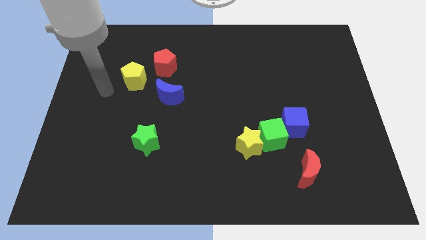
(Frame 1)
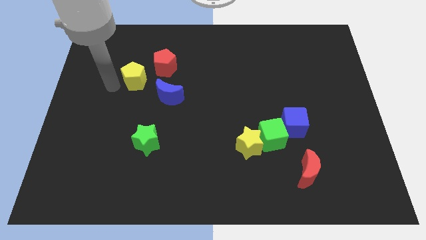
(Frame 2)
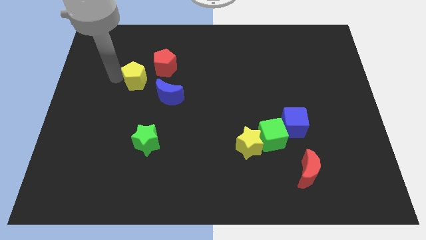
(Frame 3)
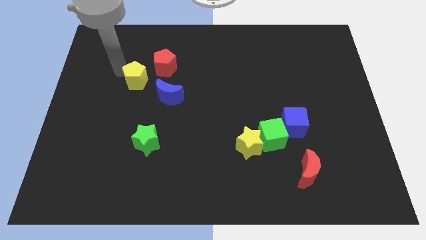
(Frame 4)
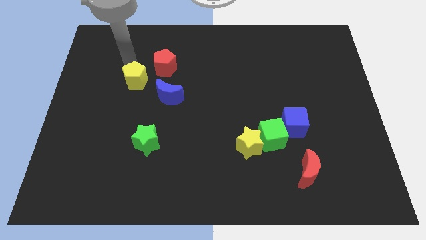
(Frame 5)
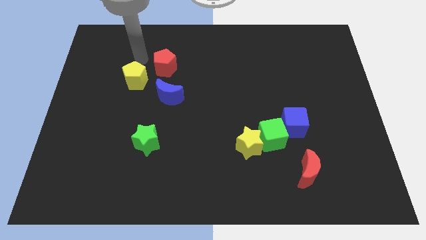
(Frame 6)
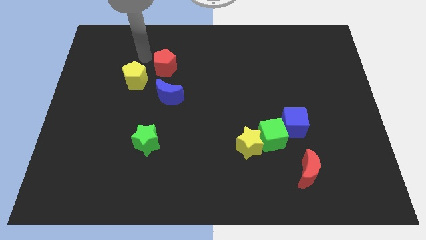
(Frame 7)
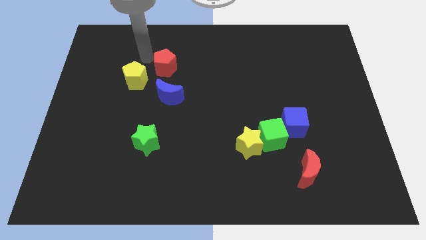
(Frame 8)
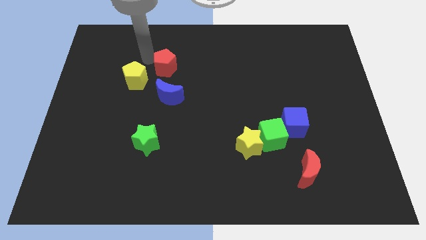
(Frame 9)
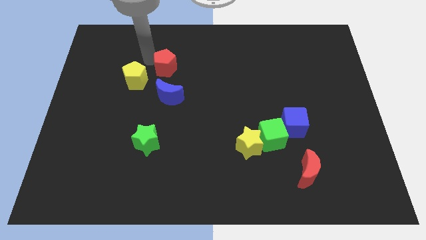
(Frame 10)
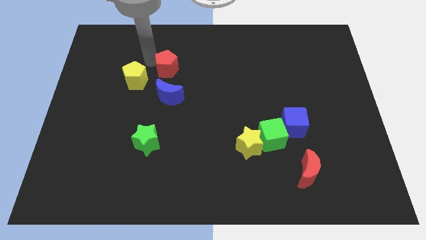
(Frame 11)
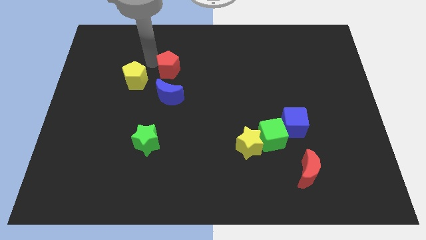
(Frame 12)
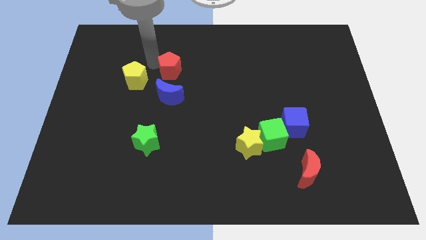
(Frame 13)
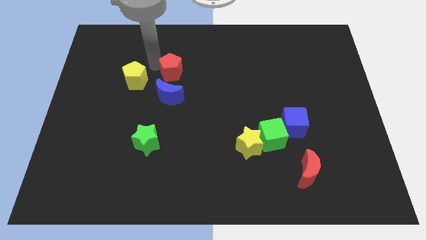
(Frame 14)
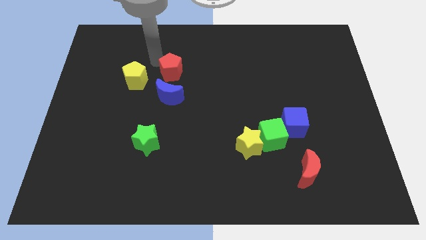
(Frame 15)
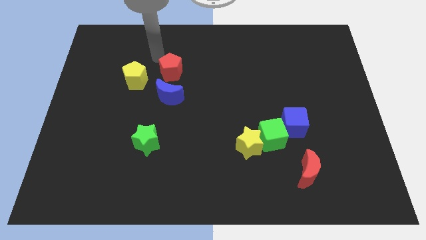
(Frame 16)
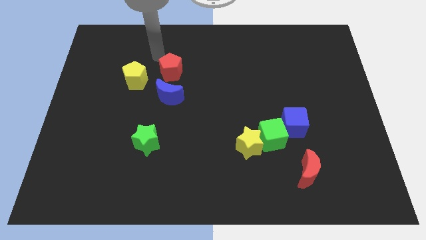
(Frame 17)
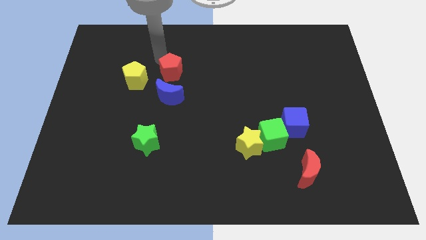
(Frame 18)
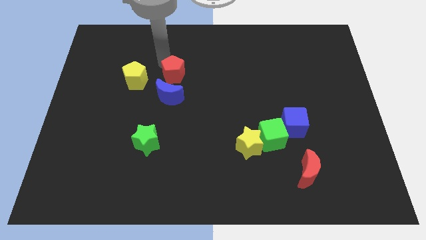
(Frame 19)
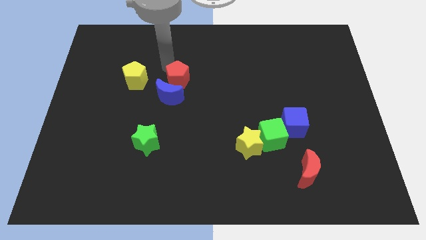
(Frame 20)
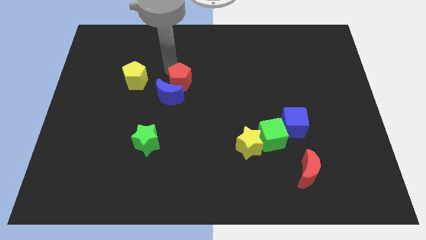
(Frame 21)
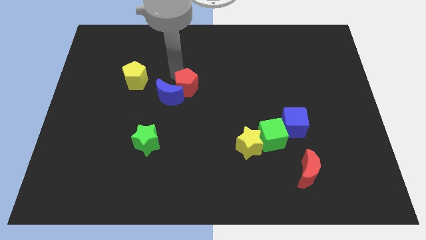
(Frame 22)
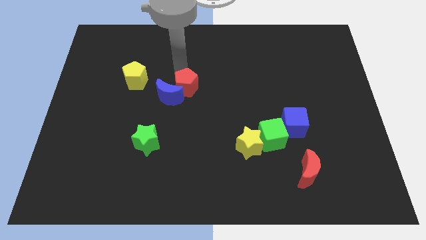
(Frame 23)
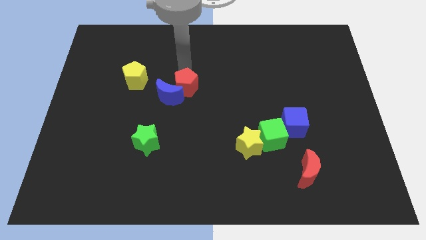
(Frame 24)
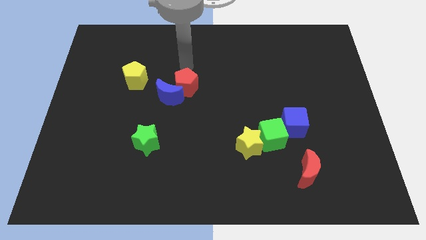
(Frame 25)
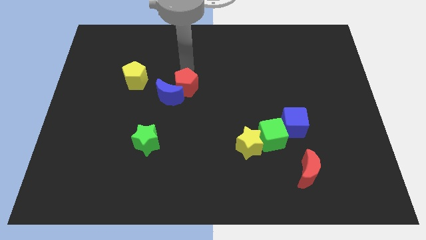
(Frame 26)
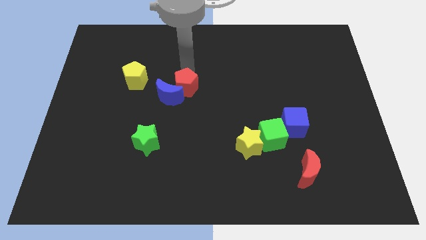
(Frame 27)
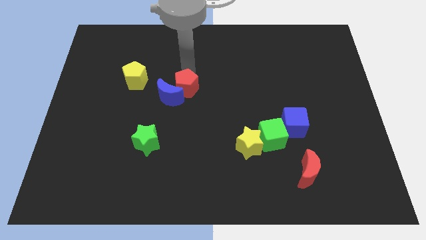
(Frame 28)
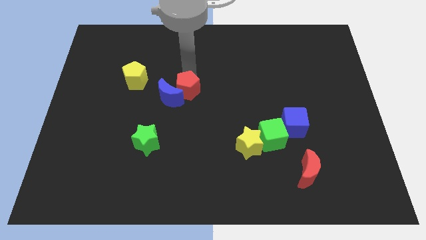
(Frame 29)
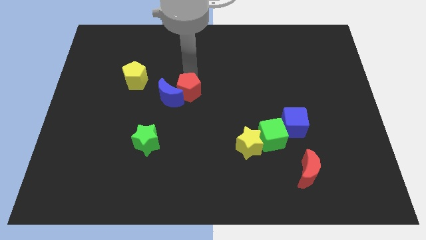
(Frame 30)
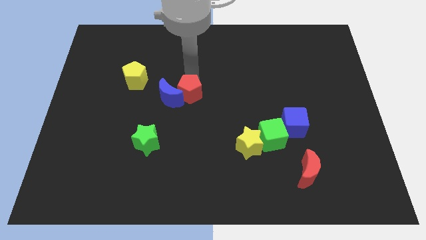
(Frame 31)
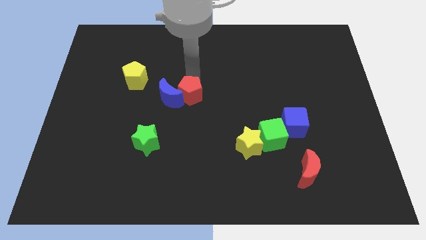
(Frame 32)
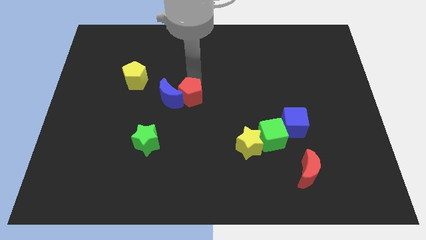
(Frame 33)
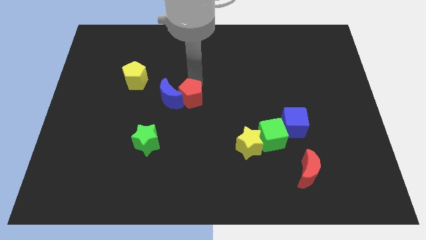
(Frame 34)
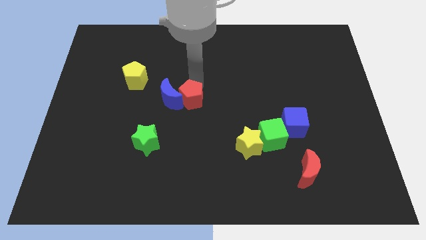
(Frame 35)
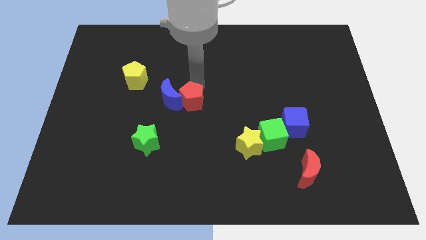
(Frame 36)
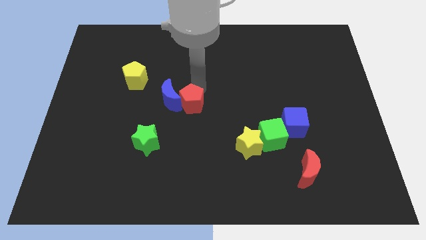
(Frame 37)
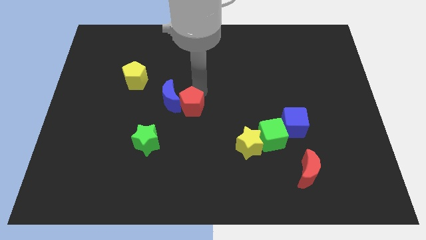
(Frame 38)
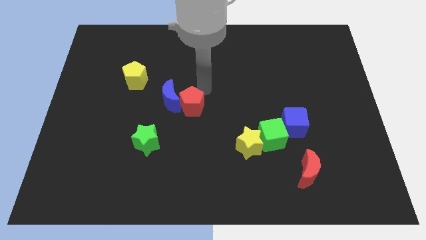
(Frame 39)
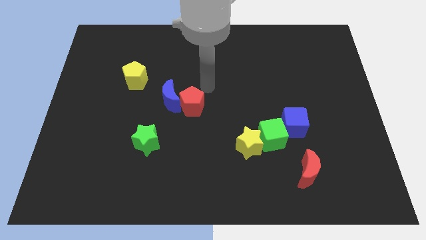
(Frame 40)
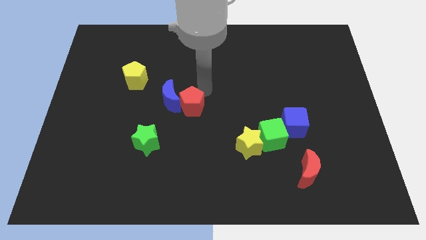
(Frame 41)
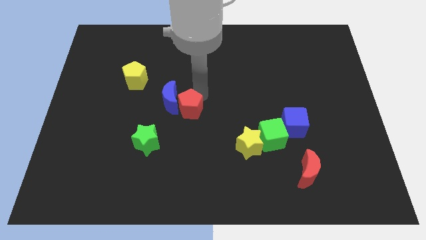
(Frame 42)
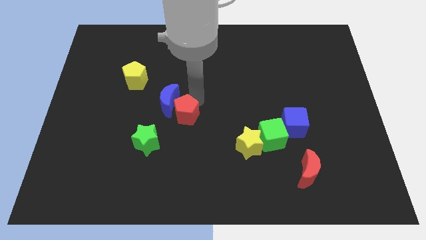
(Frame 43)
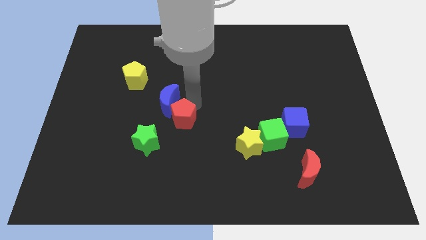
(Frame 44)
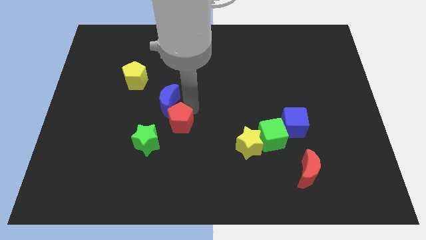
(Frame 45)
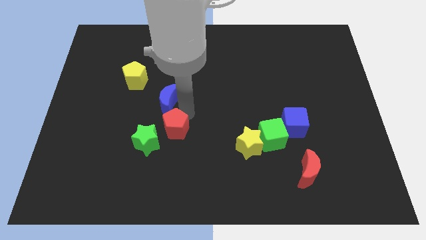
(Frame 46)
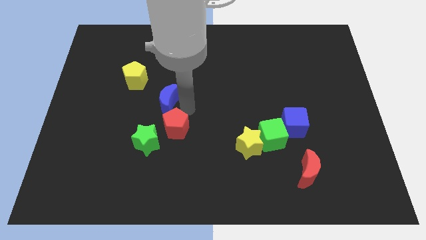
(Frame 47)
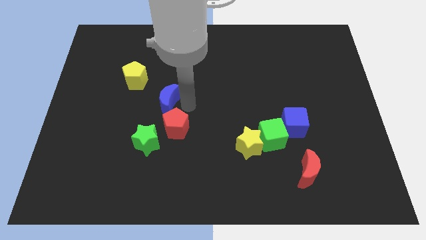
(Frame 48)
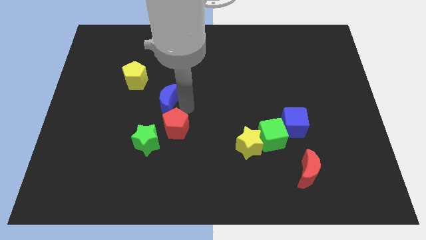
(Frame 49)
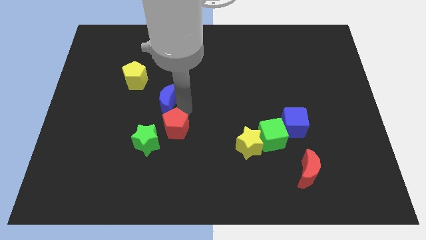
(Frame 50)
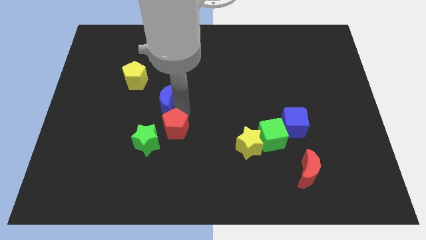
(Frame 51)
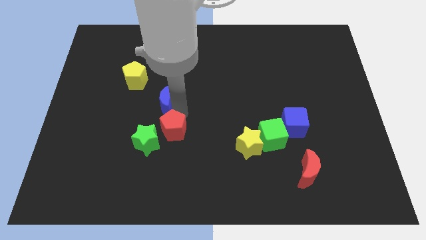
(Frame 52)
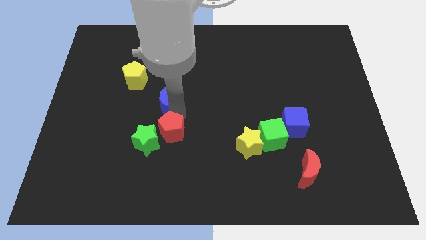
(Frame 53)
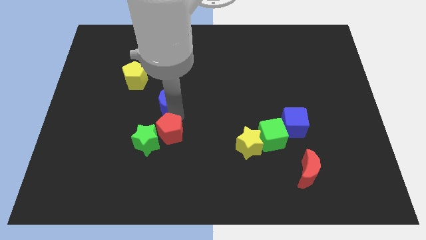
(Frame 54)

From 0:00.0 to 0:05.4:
move the red pentagon down

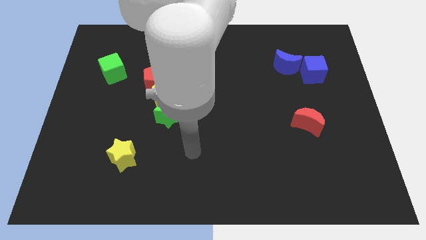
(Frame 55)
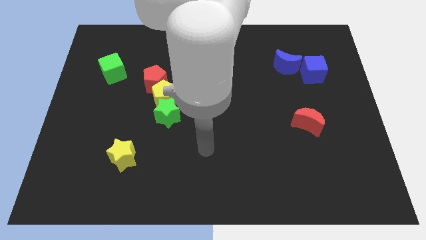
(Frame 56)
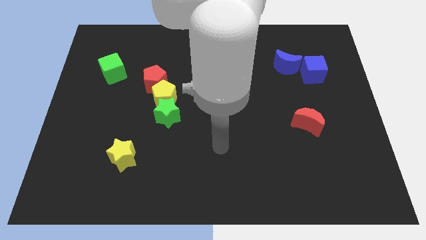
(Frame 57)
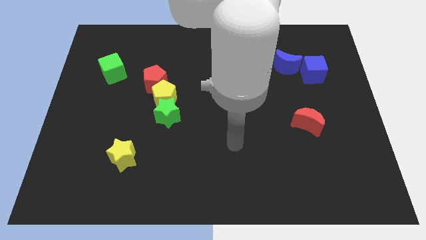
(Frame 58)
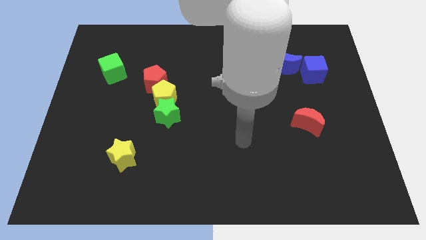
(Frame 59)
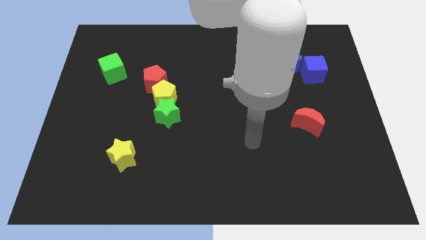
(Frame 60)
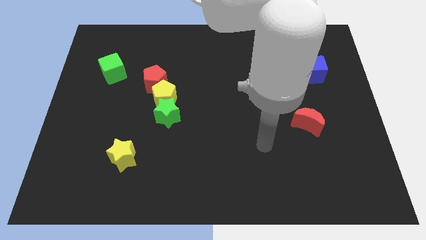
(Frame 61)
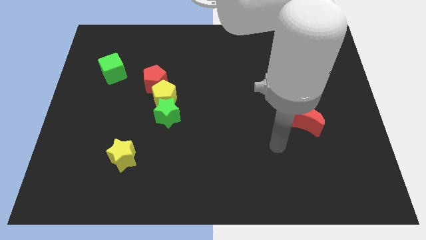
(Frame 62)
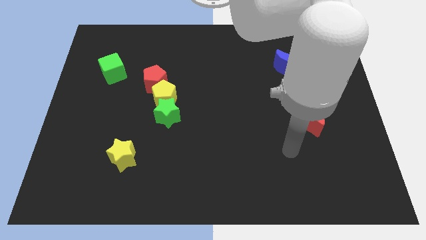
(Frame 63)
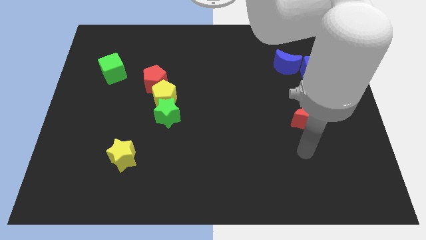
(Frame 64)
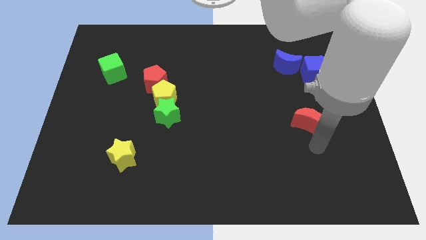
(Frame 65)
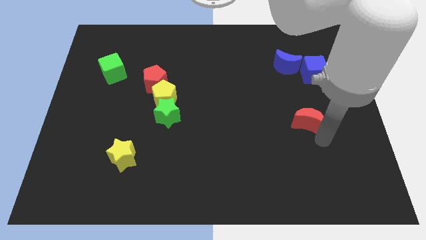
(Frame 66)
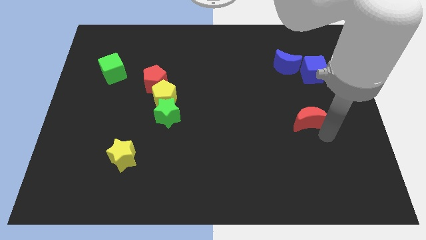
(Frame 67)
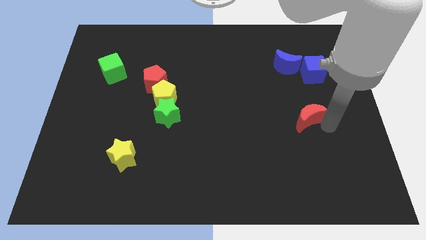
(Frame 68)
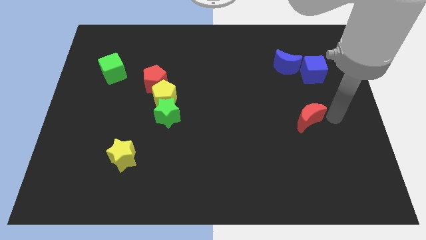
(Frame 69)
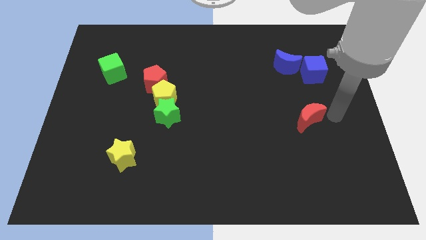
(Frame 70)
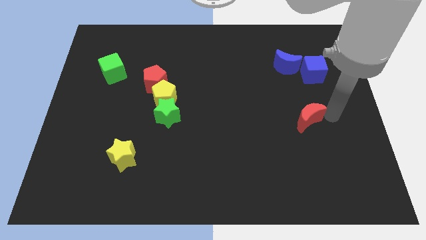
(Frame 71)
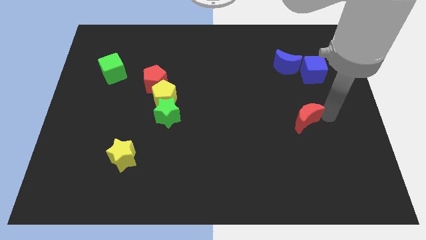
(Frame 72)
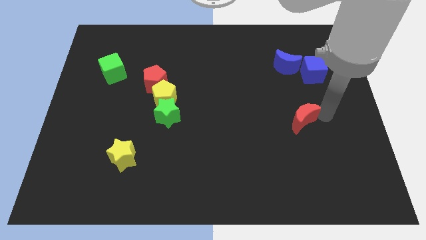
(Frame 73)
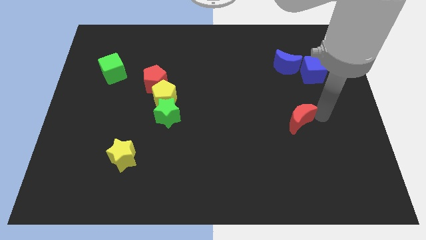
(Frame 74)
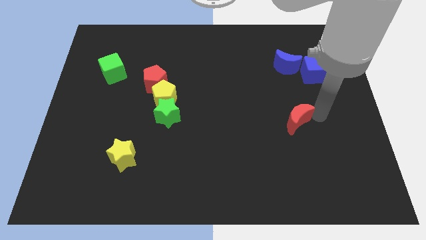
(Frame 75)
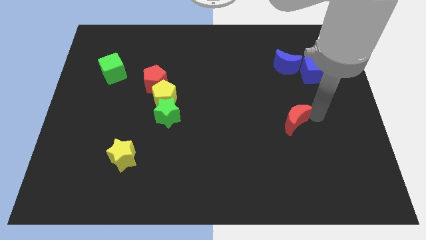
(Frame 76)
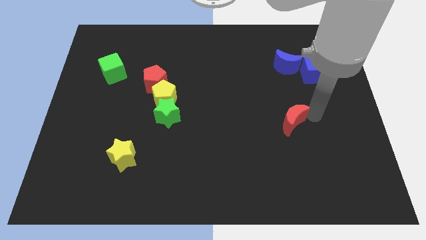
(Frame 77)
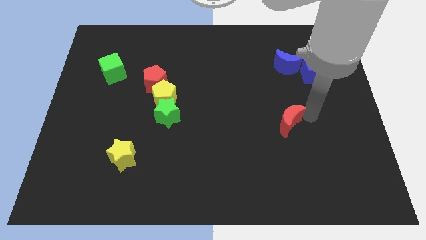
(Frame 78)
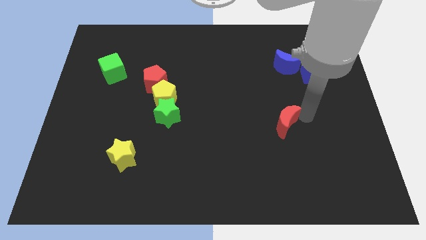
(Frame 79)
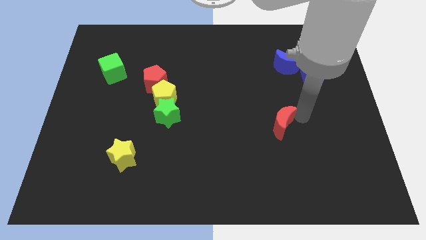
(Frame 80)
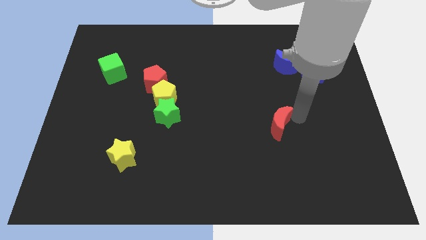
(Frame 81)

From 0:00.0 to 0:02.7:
move the red moon a little left
